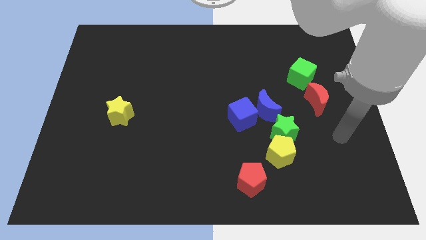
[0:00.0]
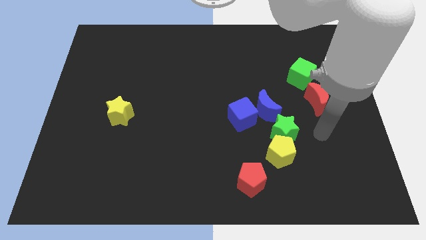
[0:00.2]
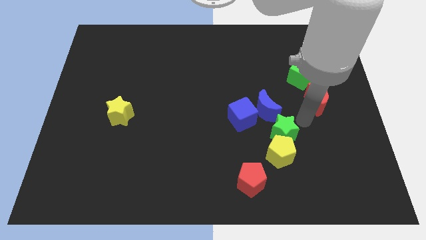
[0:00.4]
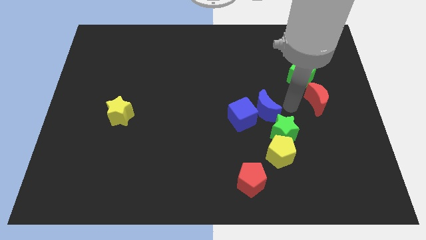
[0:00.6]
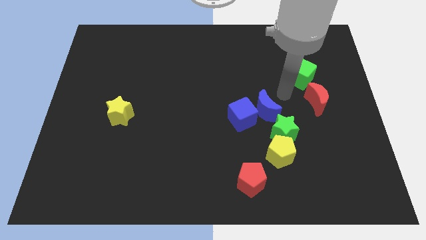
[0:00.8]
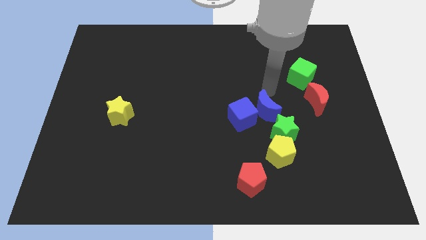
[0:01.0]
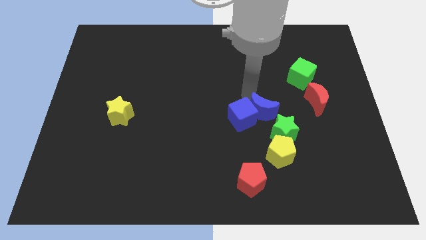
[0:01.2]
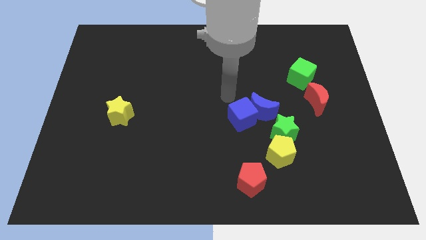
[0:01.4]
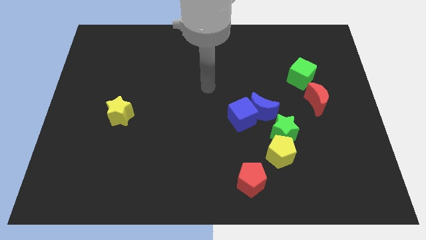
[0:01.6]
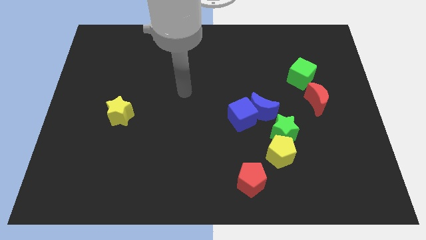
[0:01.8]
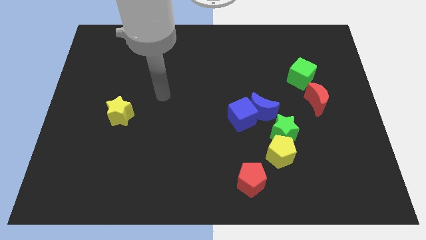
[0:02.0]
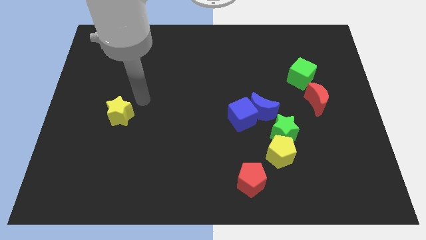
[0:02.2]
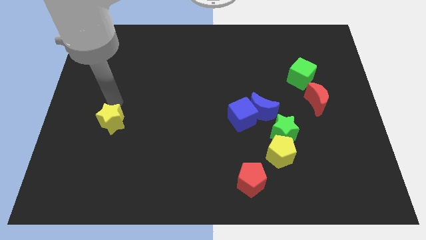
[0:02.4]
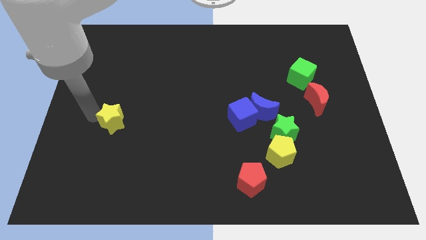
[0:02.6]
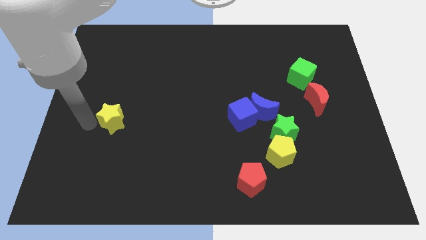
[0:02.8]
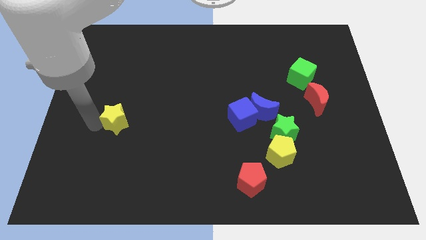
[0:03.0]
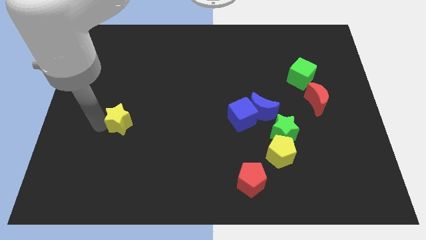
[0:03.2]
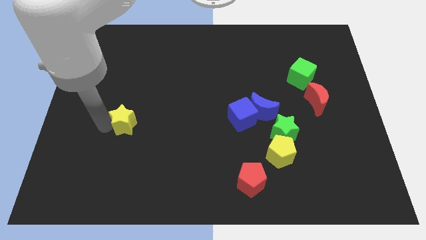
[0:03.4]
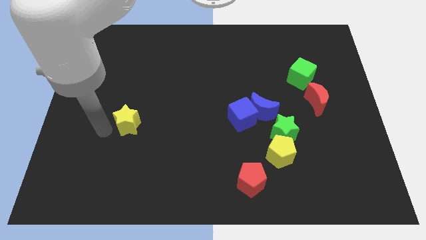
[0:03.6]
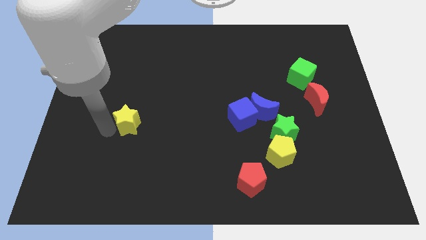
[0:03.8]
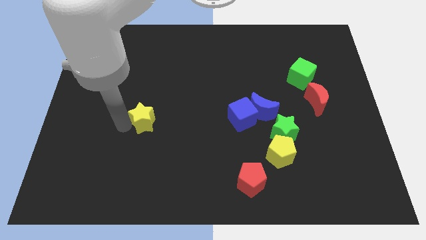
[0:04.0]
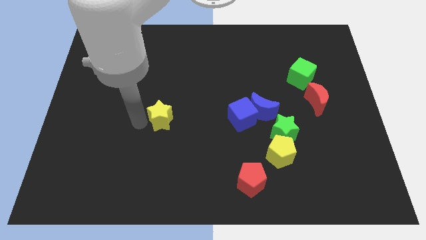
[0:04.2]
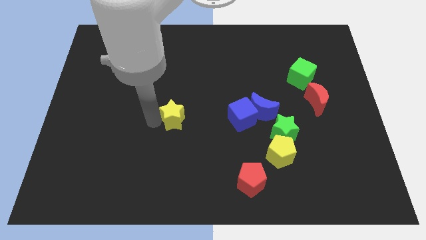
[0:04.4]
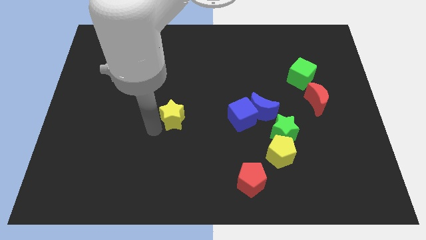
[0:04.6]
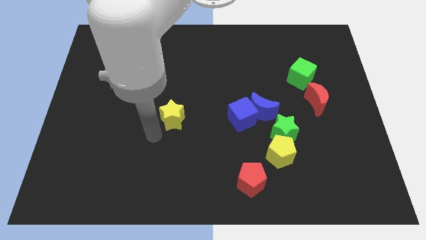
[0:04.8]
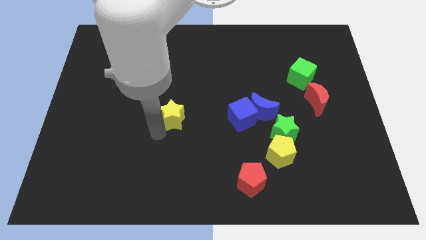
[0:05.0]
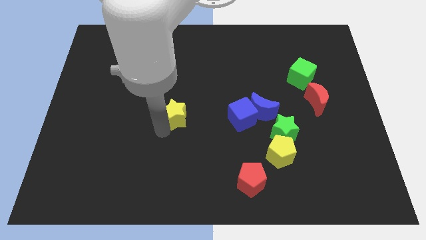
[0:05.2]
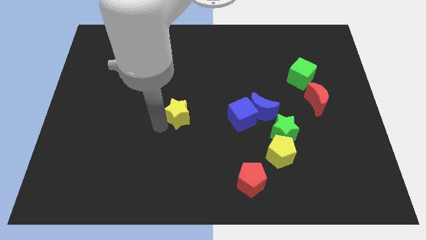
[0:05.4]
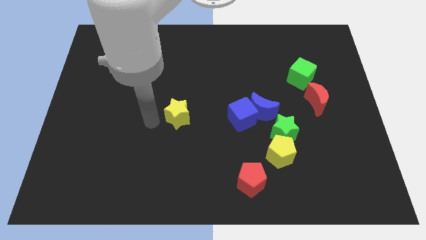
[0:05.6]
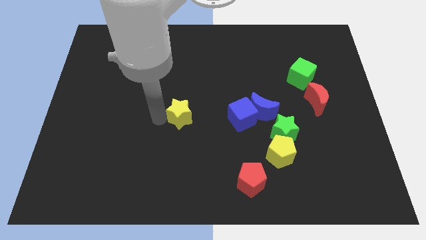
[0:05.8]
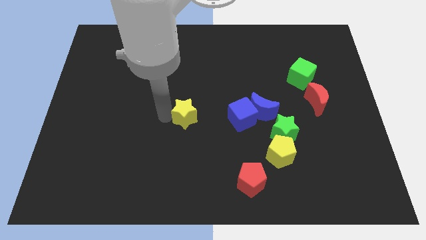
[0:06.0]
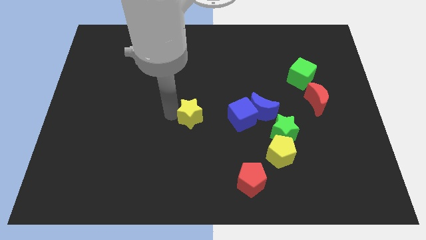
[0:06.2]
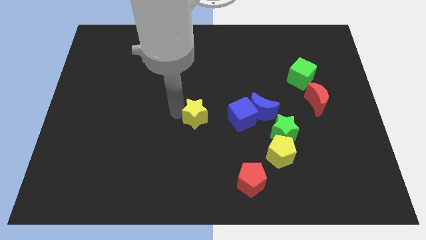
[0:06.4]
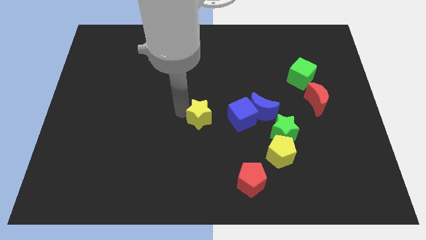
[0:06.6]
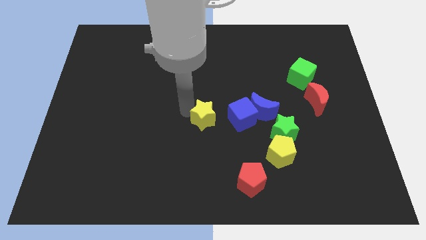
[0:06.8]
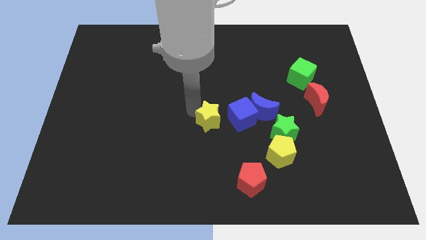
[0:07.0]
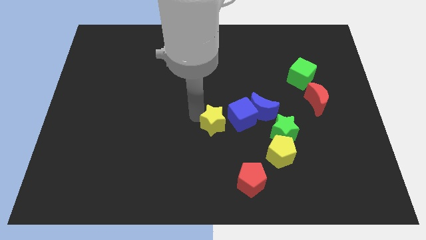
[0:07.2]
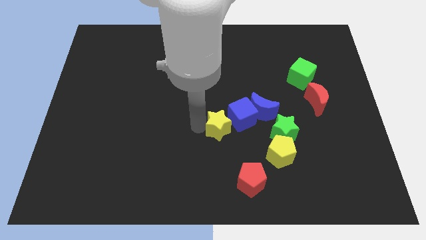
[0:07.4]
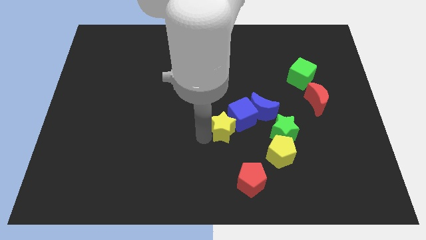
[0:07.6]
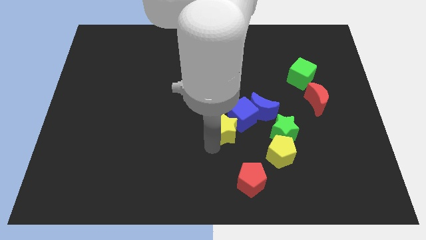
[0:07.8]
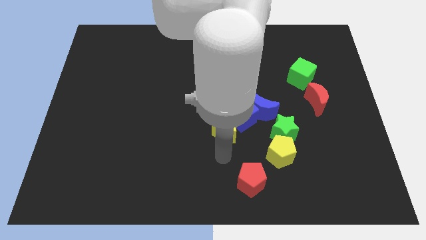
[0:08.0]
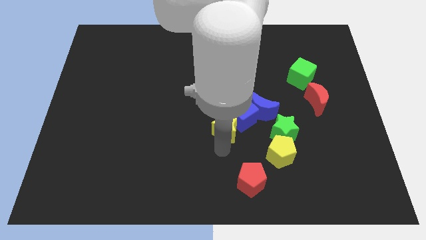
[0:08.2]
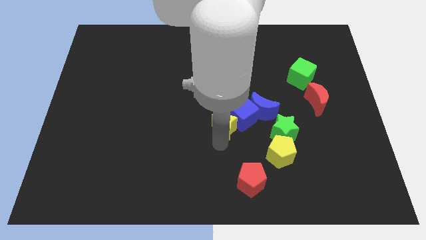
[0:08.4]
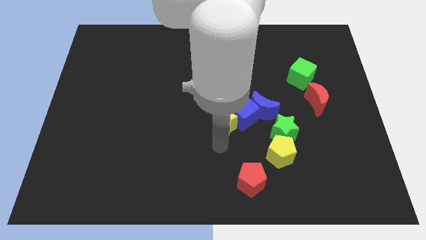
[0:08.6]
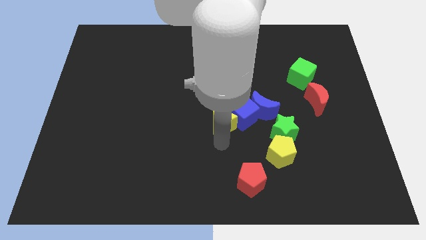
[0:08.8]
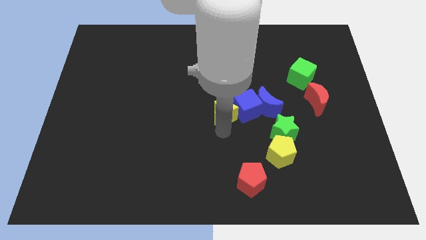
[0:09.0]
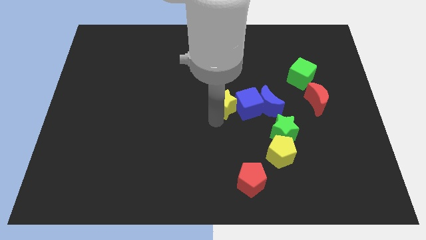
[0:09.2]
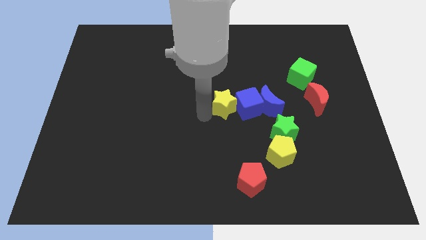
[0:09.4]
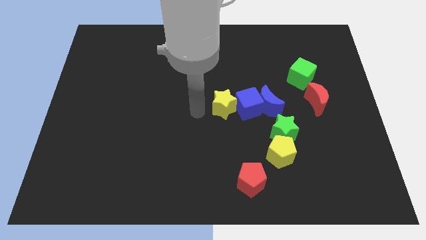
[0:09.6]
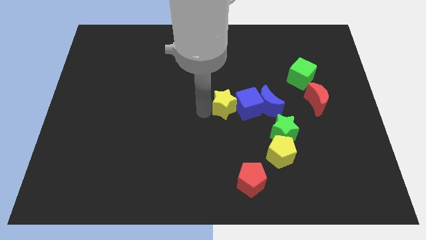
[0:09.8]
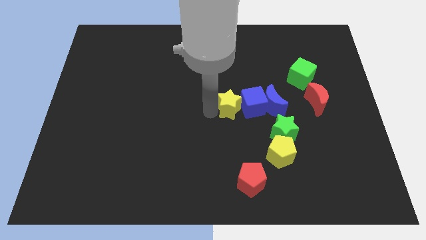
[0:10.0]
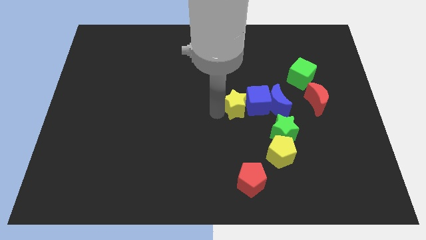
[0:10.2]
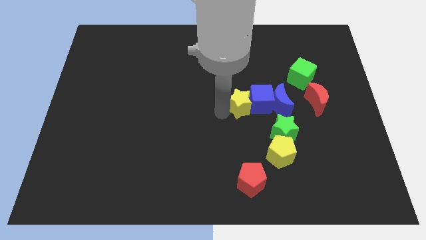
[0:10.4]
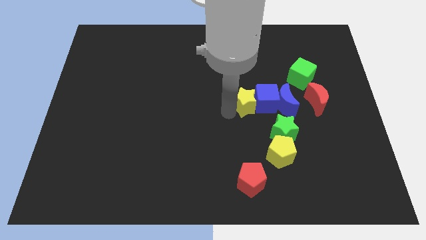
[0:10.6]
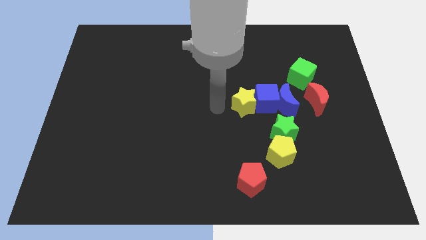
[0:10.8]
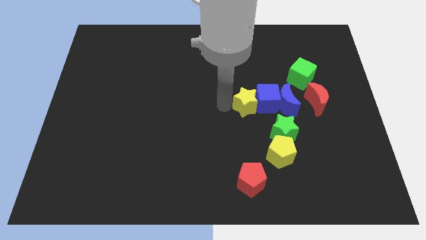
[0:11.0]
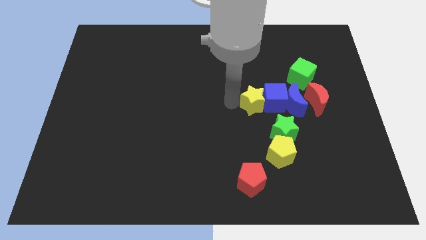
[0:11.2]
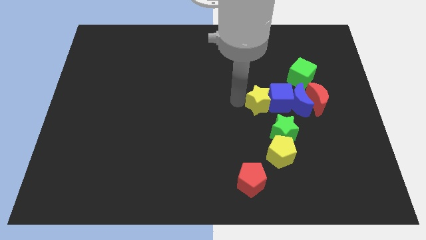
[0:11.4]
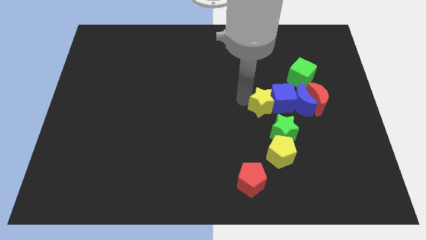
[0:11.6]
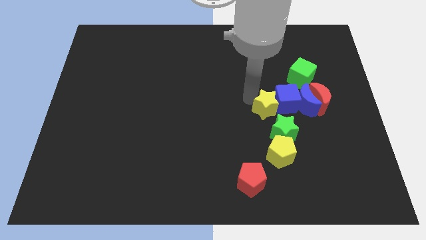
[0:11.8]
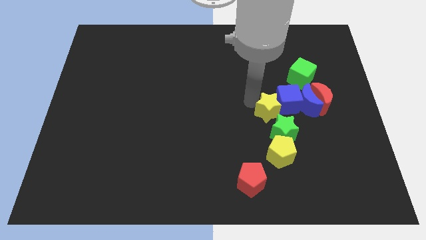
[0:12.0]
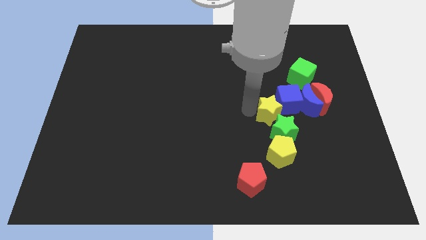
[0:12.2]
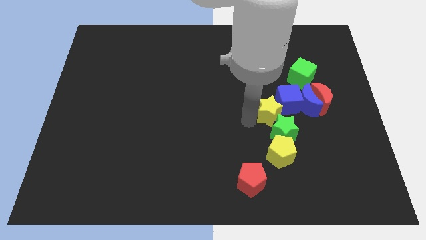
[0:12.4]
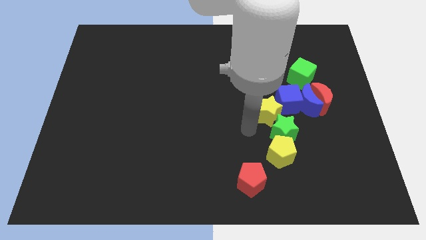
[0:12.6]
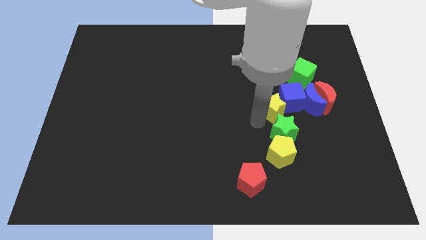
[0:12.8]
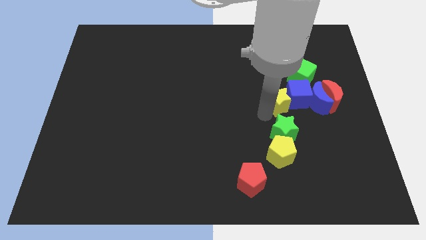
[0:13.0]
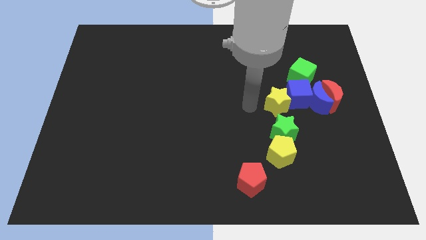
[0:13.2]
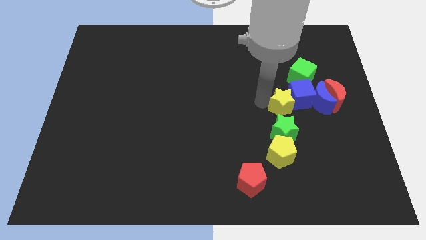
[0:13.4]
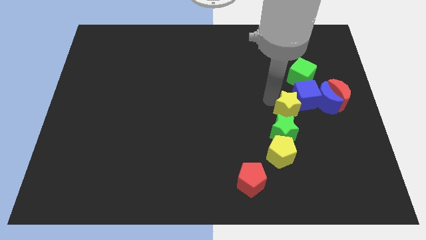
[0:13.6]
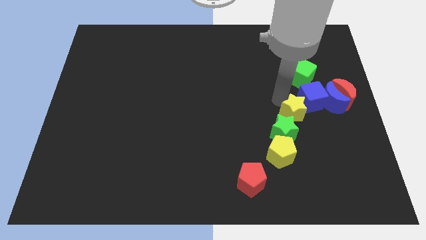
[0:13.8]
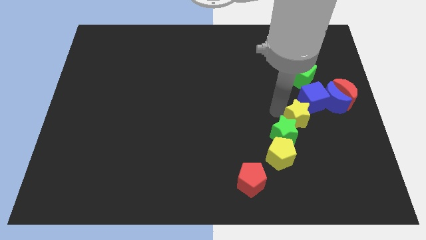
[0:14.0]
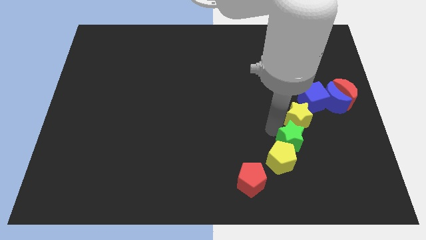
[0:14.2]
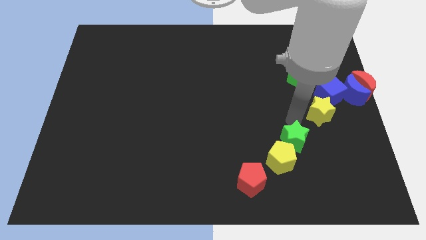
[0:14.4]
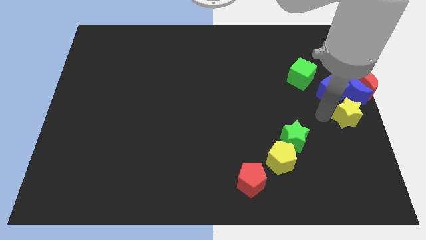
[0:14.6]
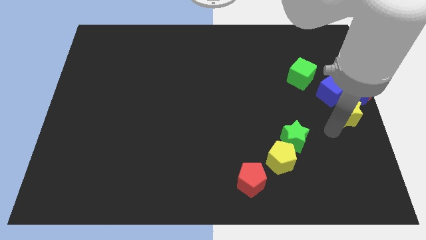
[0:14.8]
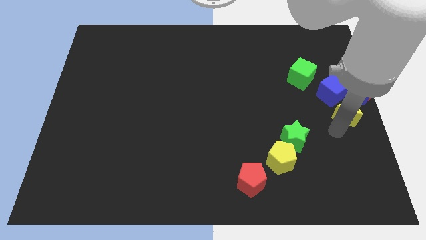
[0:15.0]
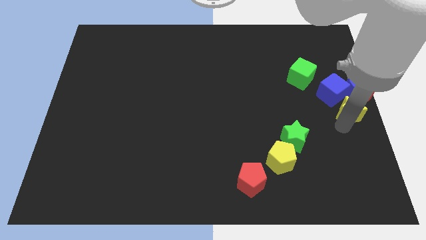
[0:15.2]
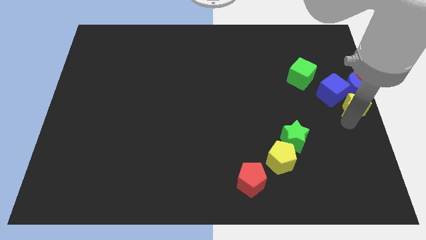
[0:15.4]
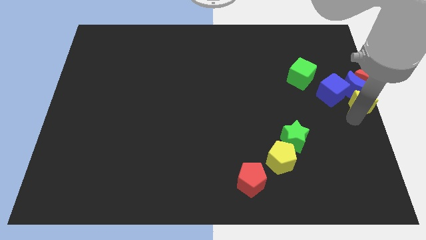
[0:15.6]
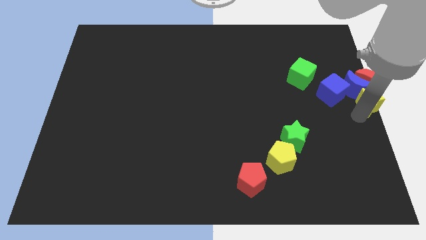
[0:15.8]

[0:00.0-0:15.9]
slide the yellow star towards the red moon
